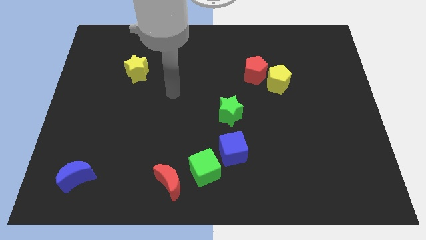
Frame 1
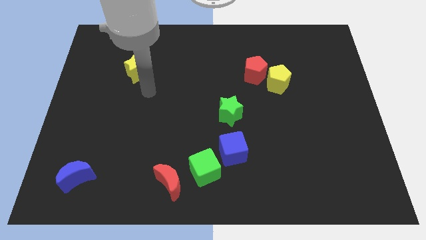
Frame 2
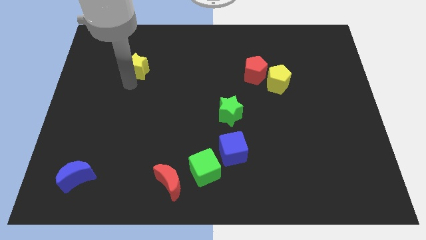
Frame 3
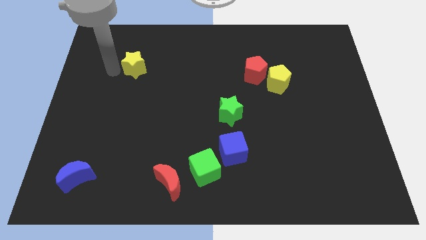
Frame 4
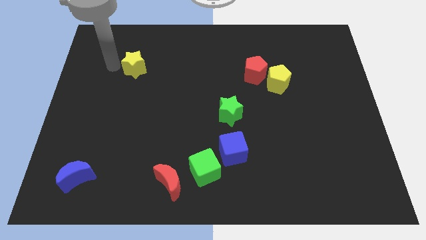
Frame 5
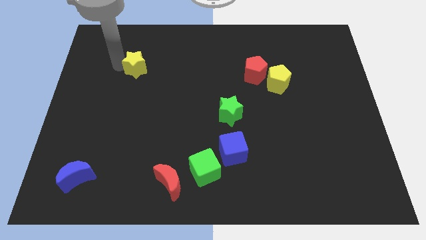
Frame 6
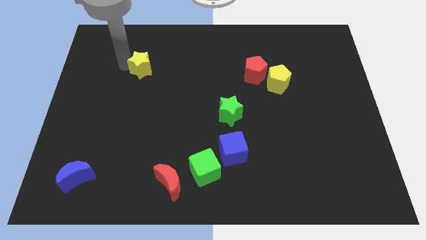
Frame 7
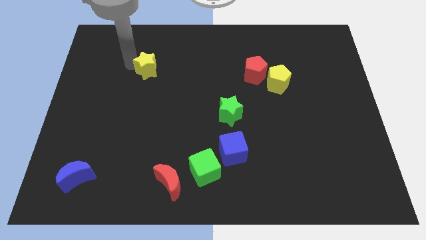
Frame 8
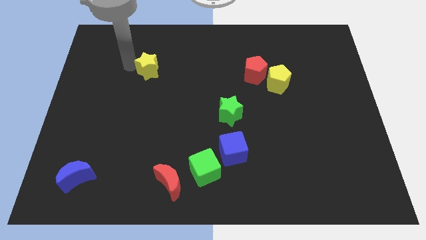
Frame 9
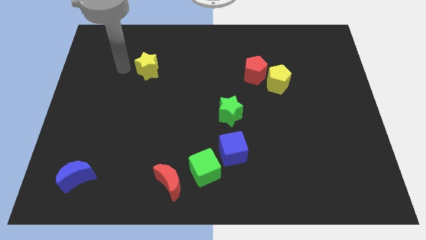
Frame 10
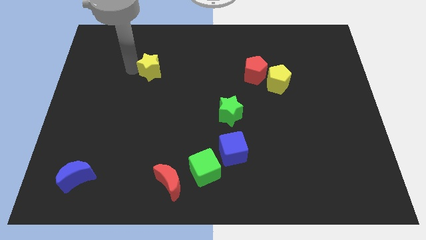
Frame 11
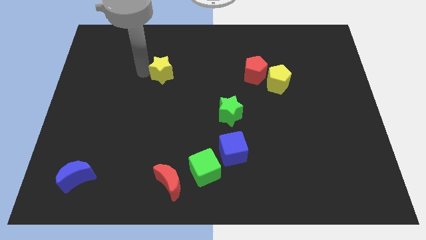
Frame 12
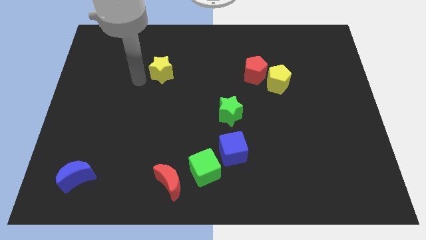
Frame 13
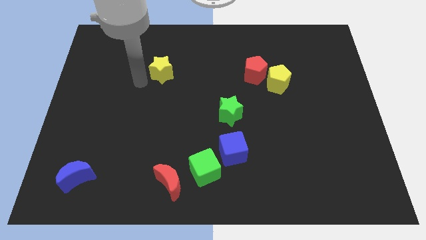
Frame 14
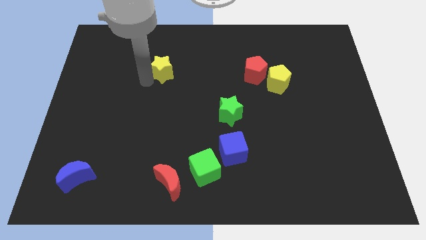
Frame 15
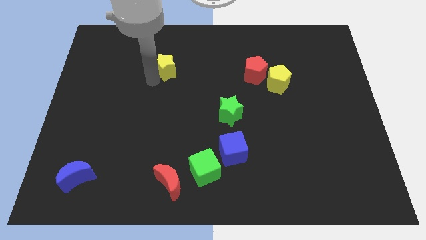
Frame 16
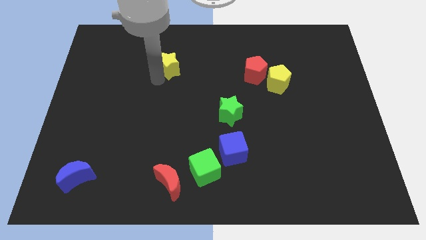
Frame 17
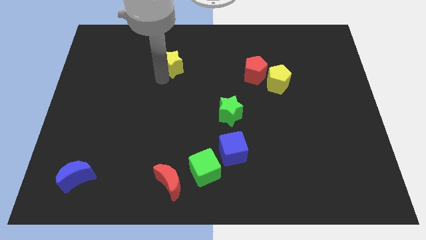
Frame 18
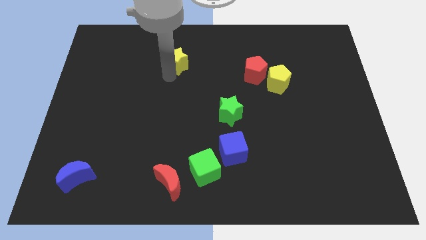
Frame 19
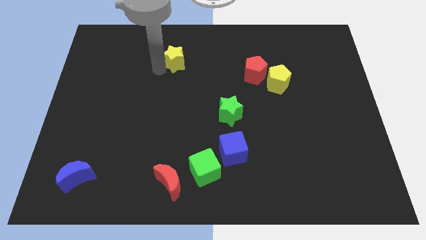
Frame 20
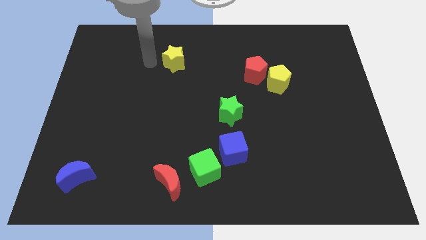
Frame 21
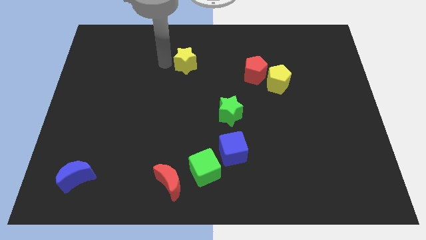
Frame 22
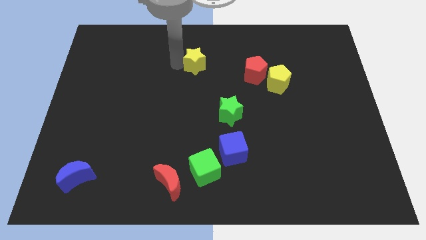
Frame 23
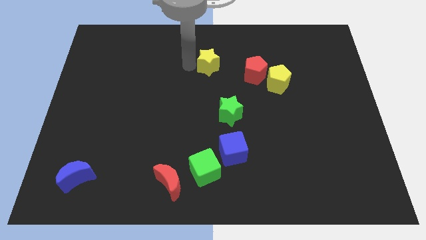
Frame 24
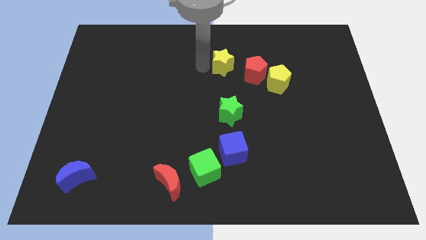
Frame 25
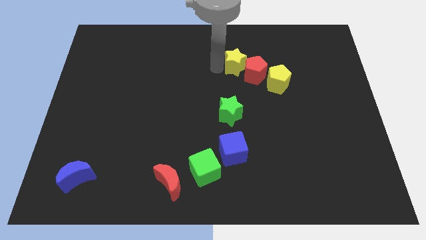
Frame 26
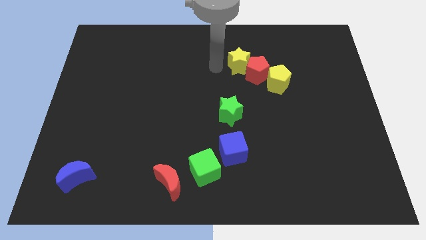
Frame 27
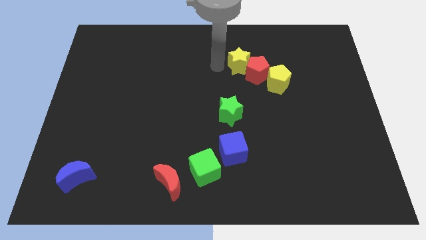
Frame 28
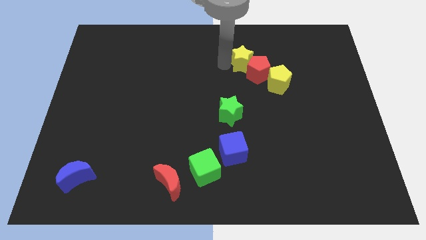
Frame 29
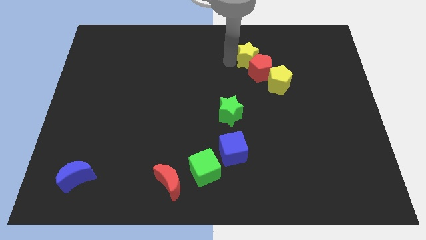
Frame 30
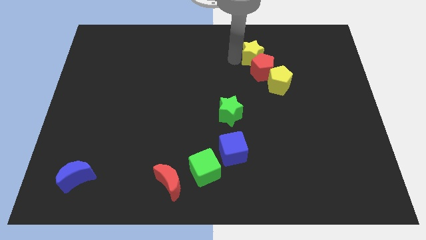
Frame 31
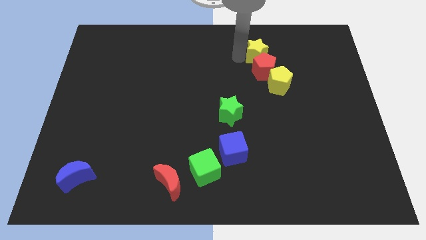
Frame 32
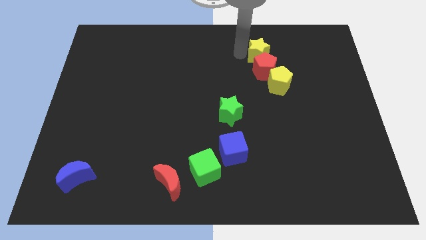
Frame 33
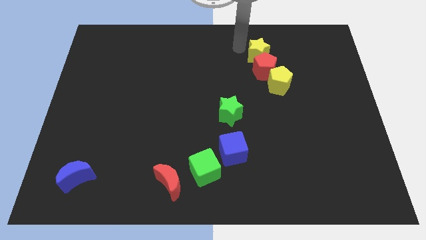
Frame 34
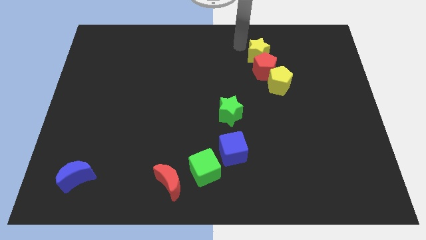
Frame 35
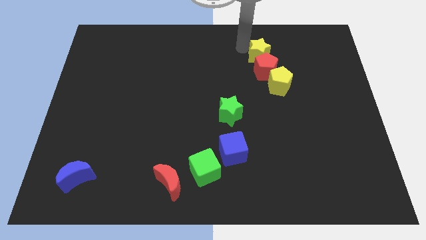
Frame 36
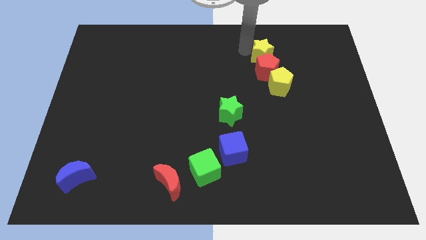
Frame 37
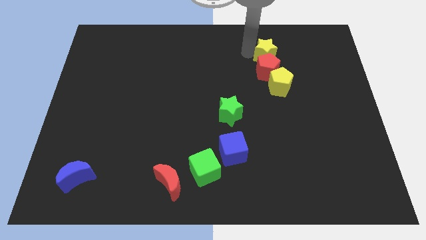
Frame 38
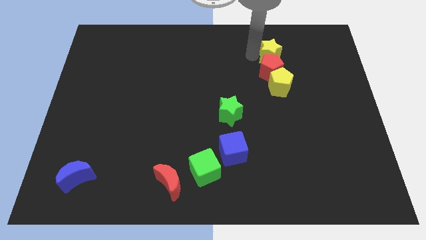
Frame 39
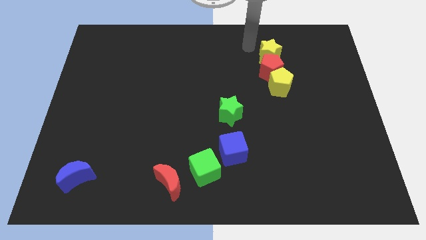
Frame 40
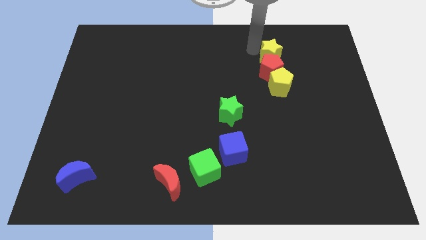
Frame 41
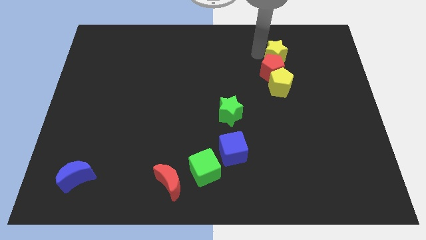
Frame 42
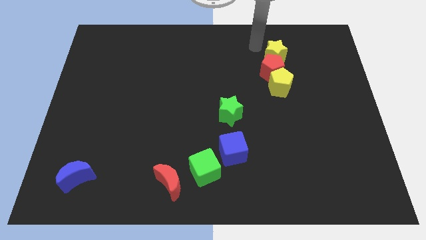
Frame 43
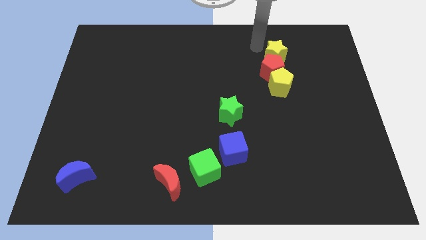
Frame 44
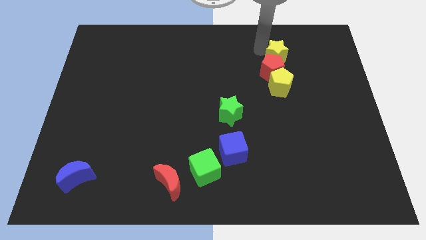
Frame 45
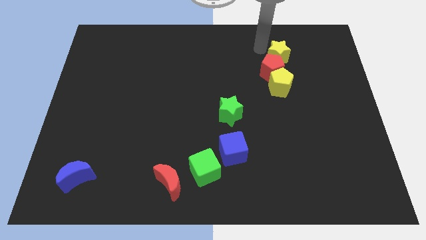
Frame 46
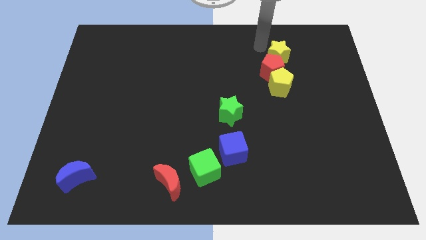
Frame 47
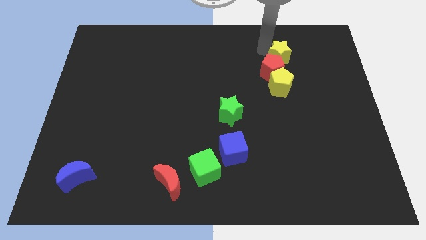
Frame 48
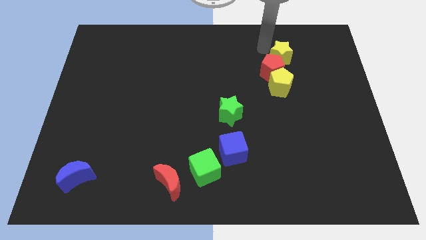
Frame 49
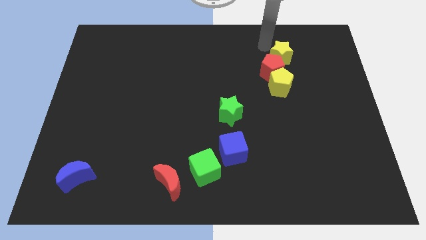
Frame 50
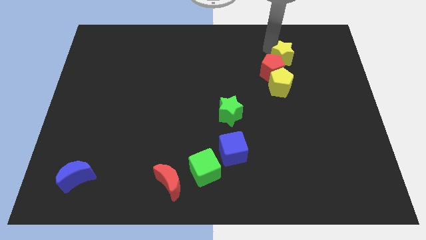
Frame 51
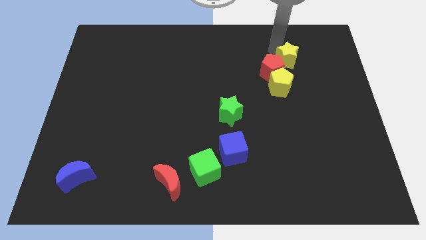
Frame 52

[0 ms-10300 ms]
push the yellow star diagonally up and to the right of the yellow pentagon

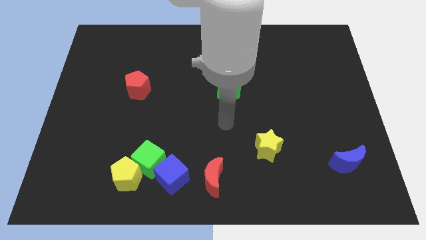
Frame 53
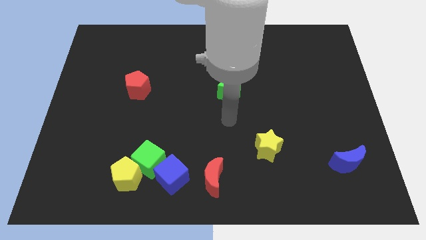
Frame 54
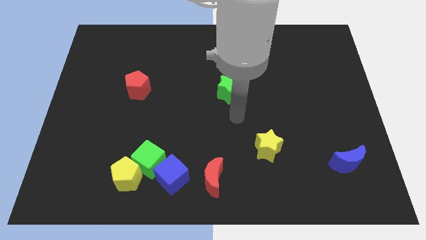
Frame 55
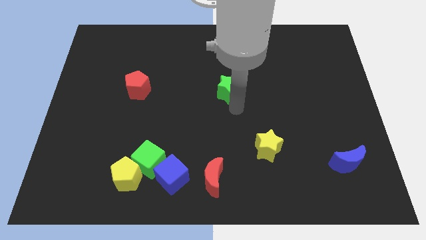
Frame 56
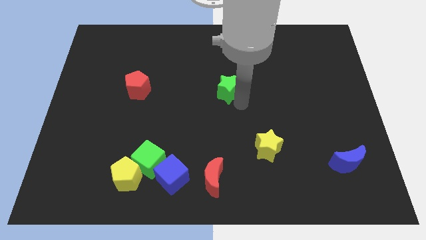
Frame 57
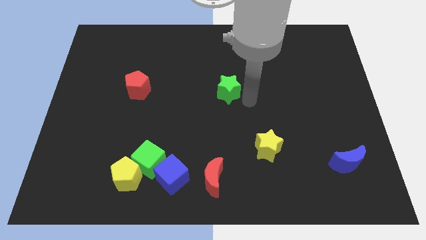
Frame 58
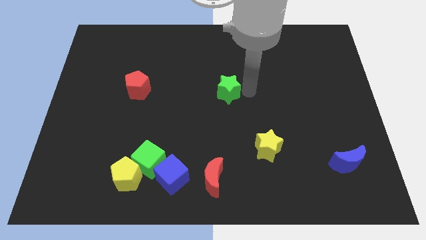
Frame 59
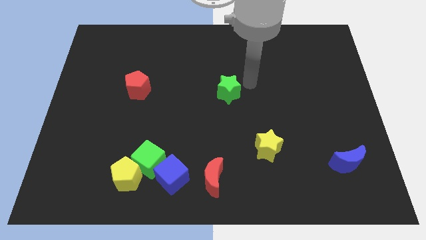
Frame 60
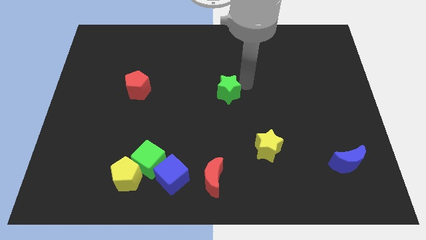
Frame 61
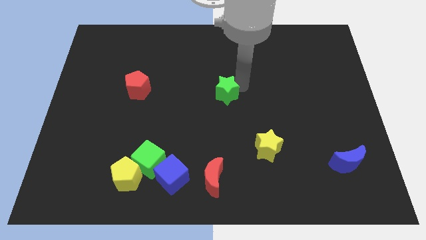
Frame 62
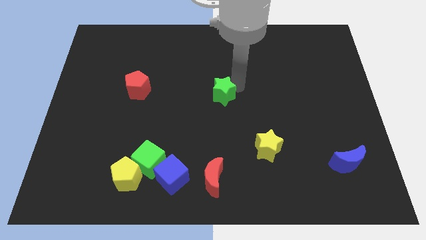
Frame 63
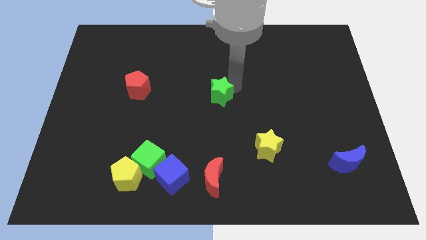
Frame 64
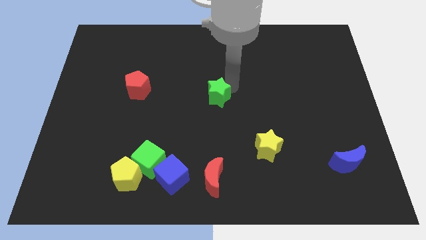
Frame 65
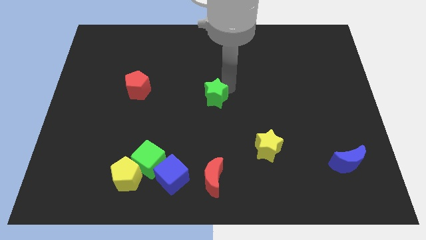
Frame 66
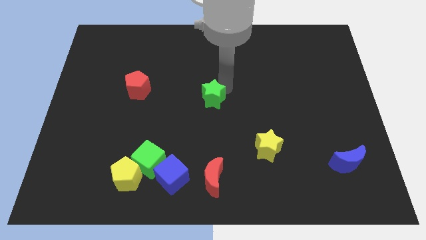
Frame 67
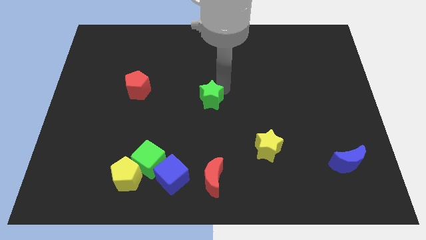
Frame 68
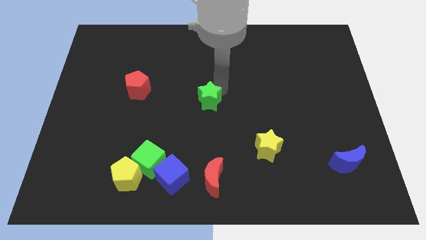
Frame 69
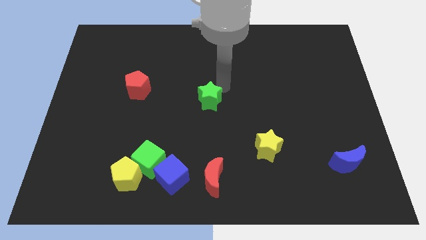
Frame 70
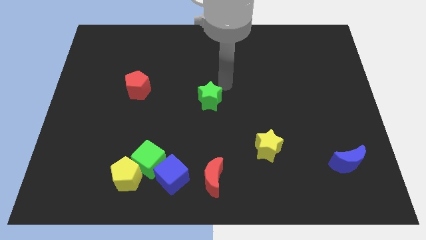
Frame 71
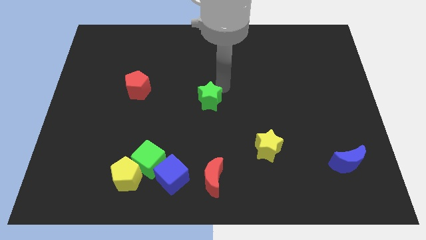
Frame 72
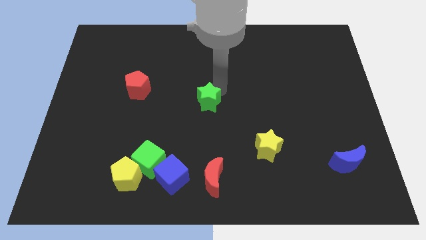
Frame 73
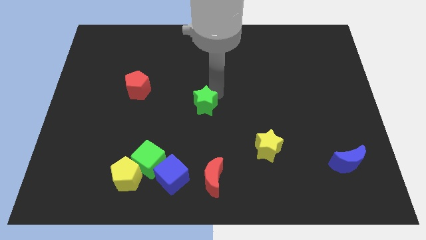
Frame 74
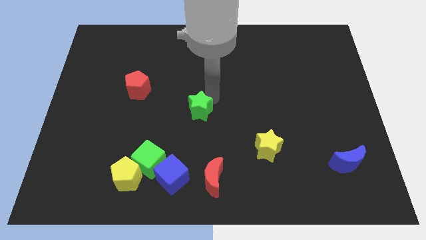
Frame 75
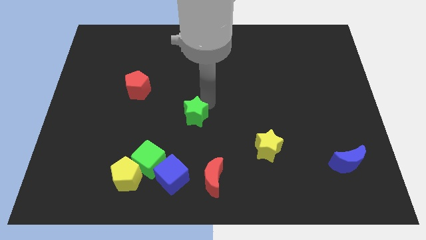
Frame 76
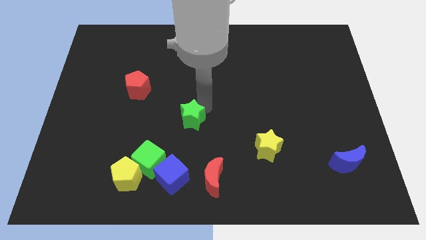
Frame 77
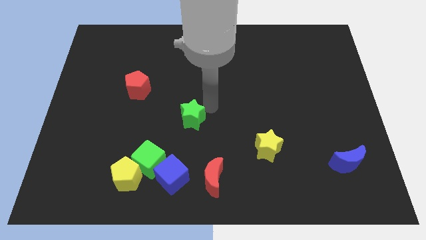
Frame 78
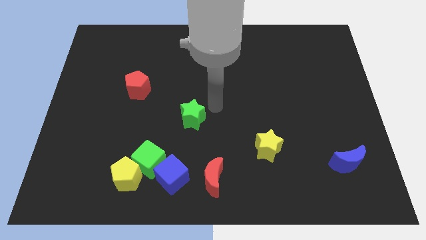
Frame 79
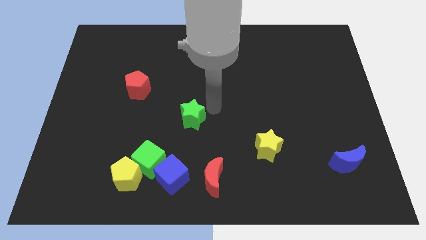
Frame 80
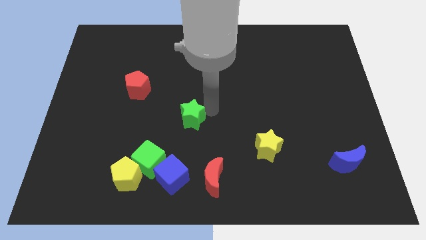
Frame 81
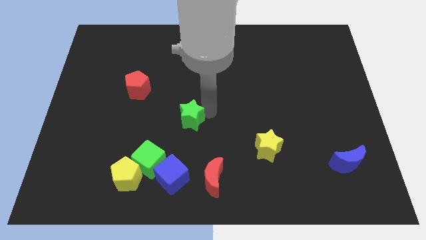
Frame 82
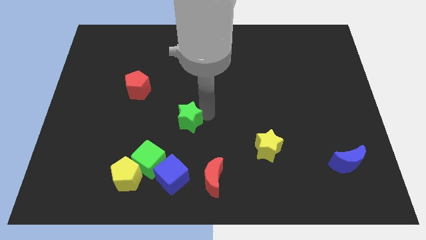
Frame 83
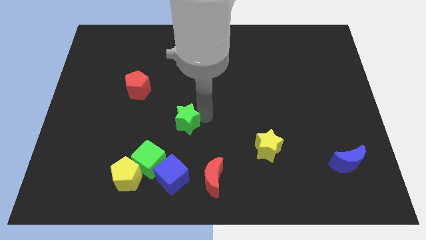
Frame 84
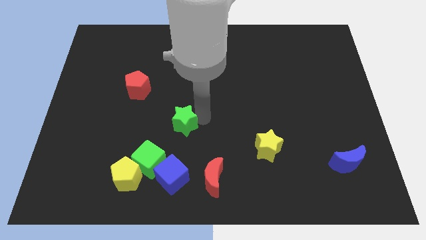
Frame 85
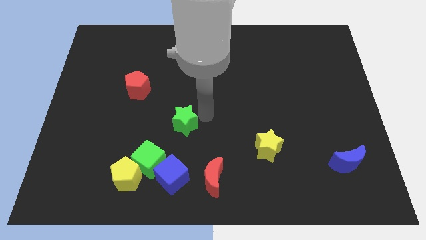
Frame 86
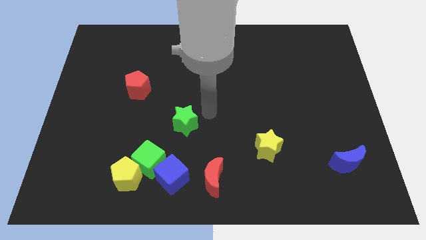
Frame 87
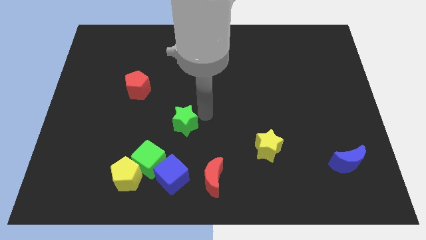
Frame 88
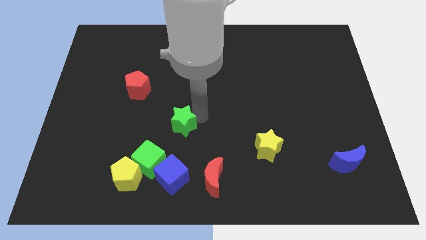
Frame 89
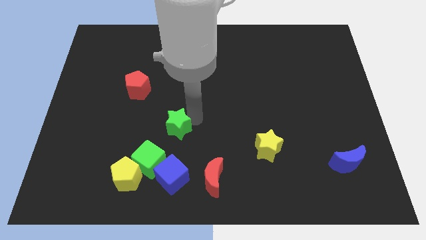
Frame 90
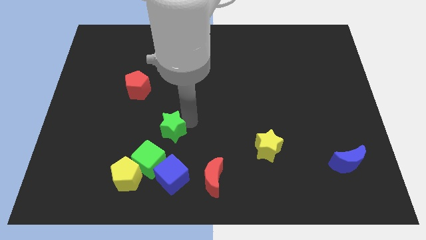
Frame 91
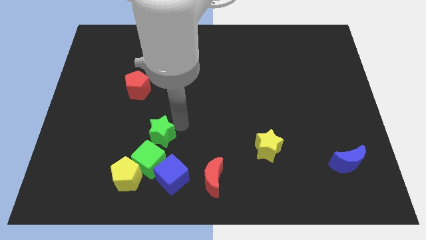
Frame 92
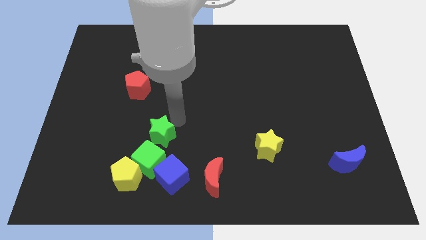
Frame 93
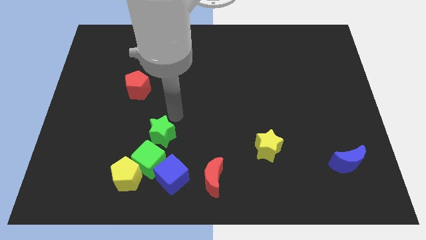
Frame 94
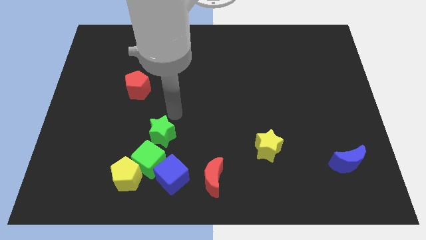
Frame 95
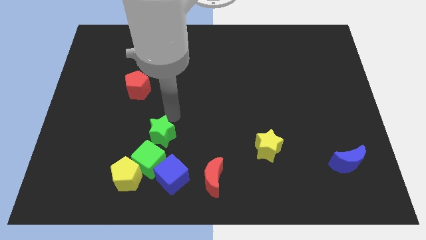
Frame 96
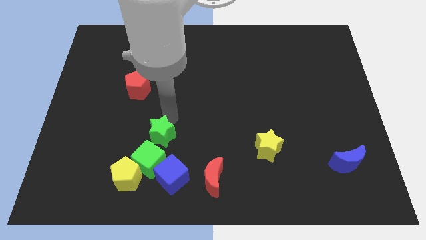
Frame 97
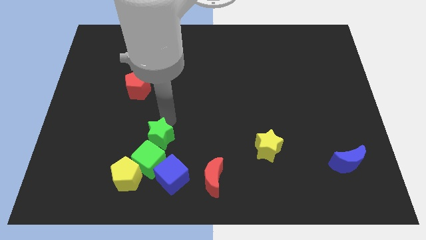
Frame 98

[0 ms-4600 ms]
move the green star to the top left side of the blue cube
